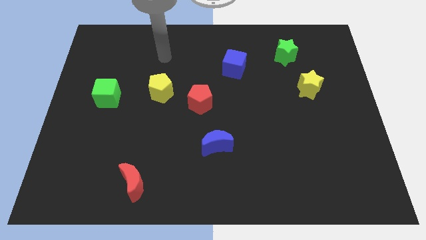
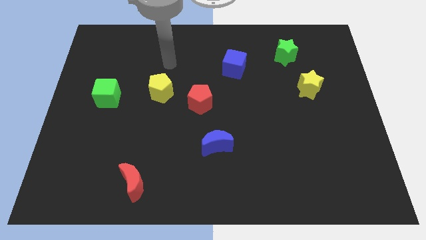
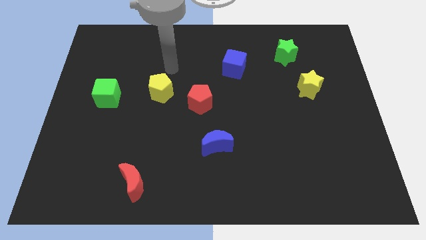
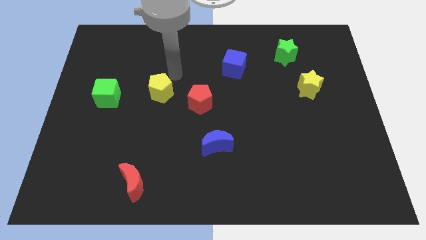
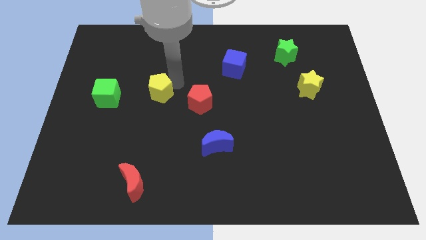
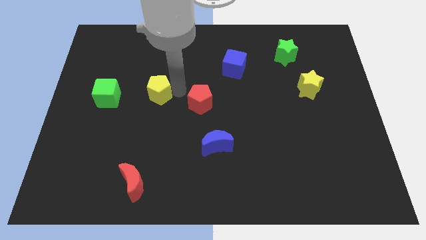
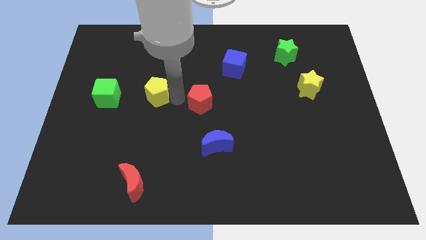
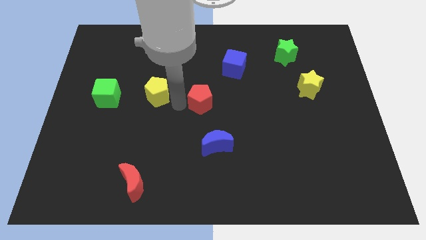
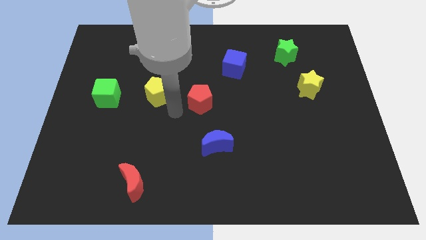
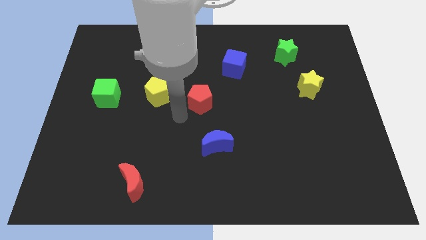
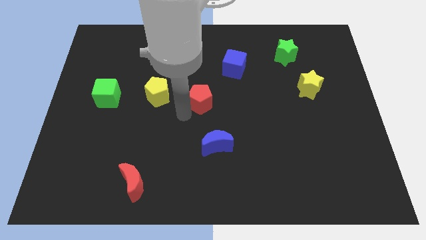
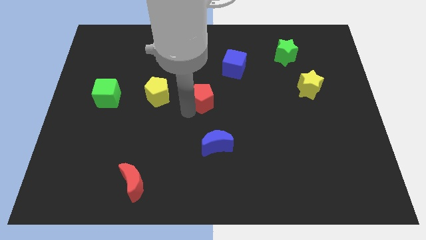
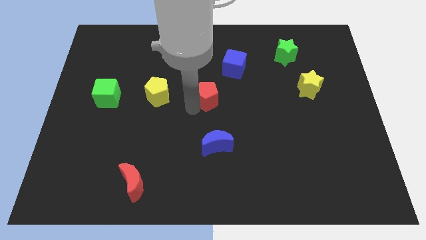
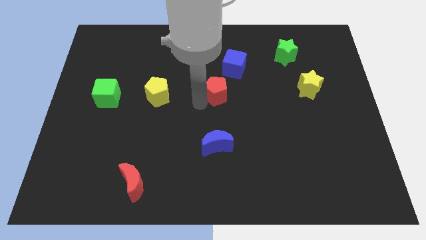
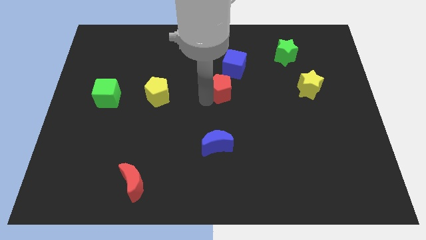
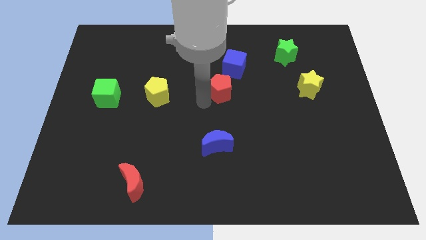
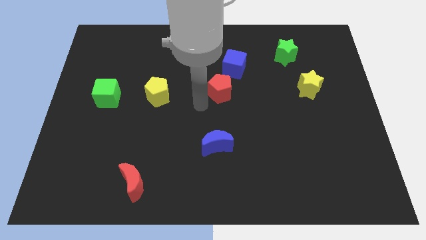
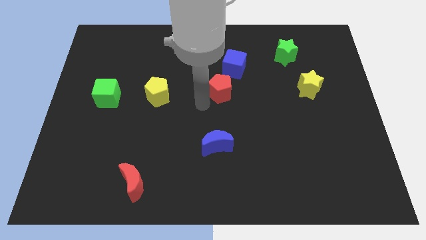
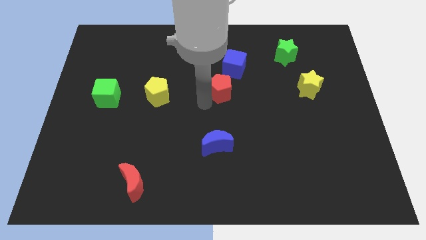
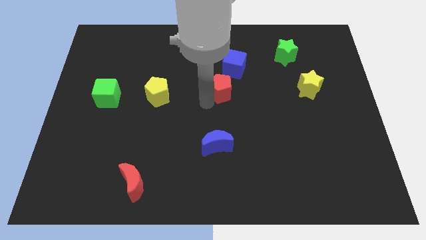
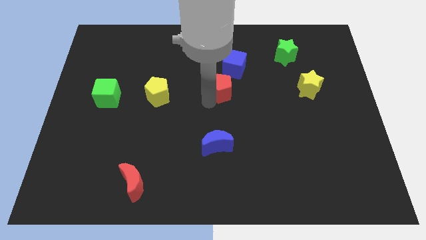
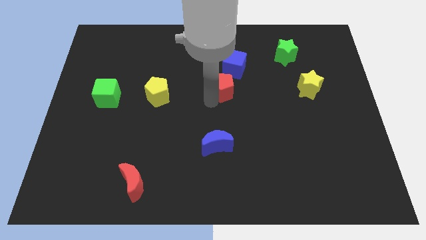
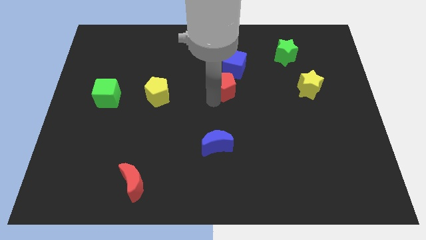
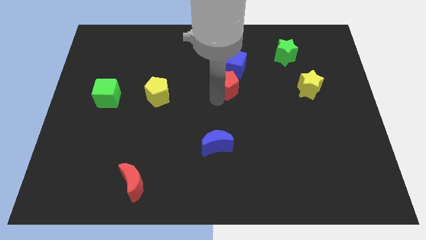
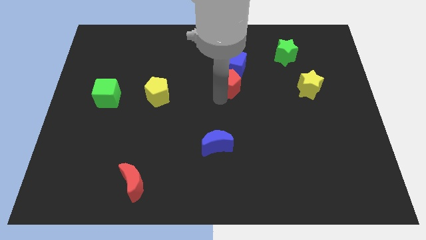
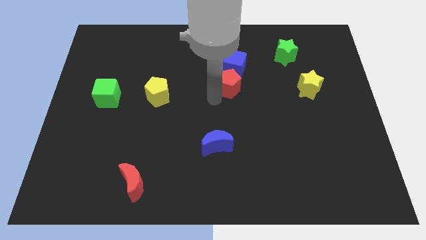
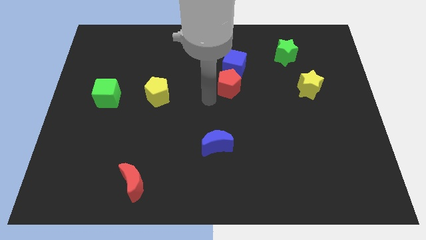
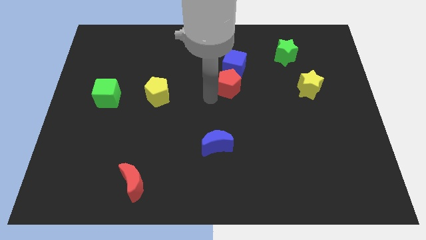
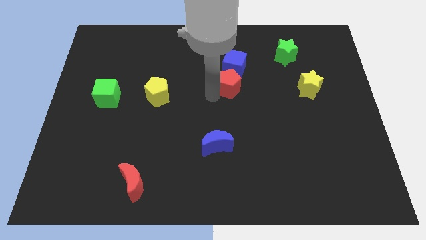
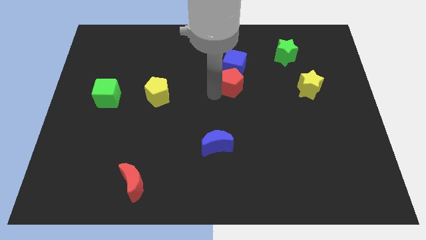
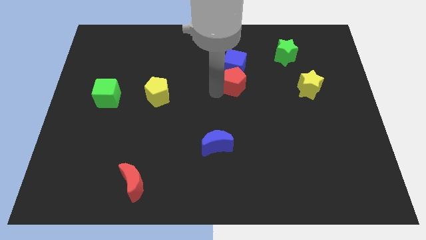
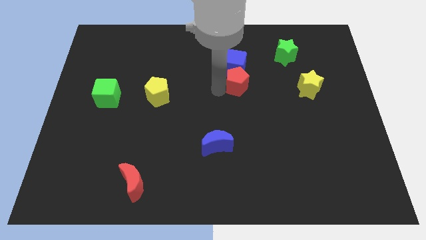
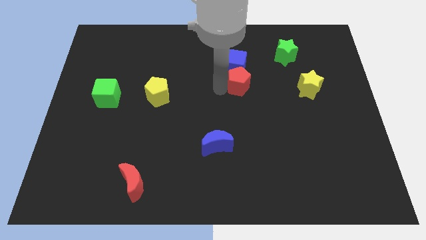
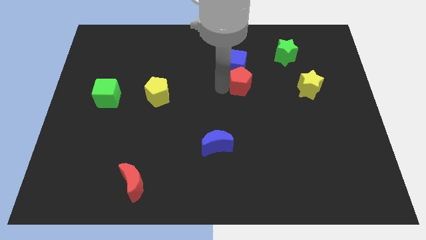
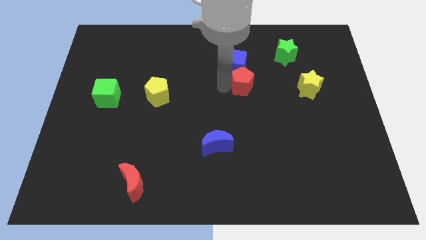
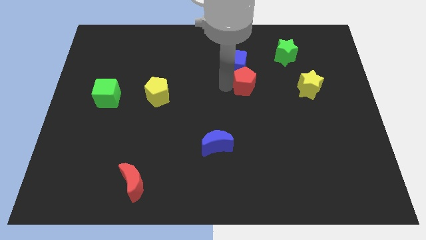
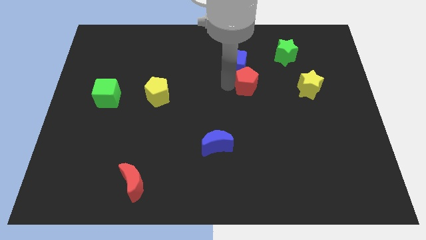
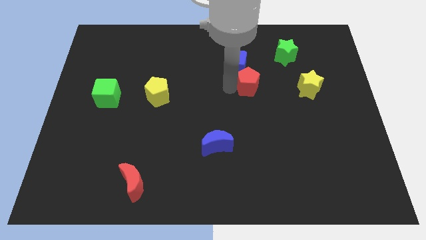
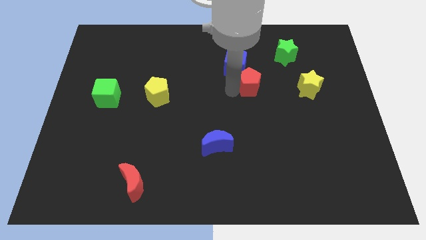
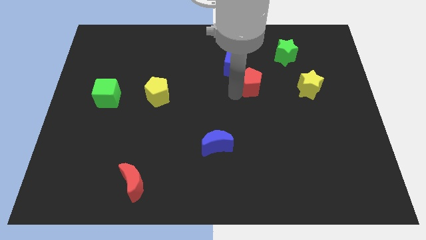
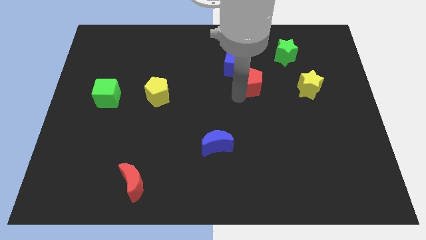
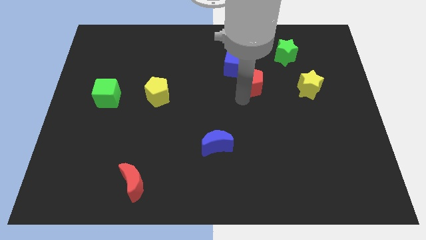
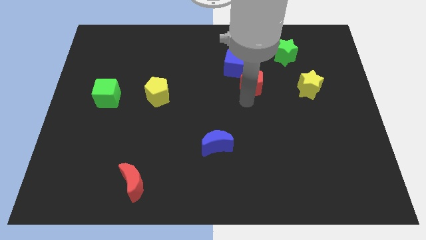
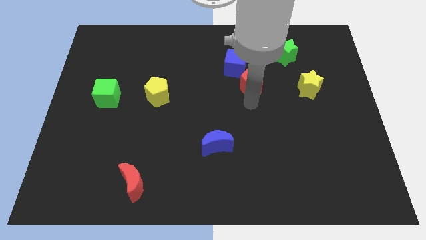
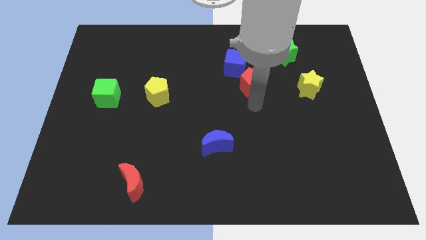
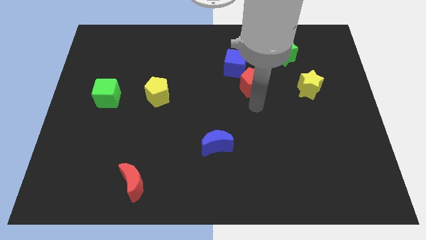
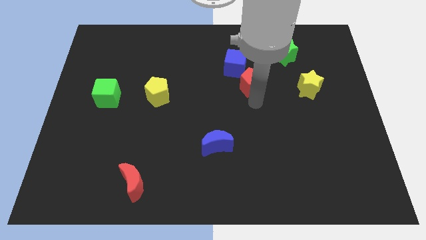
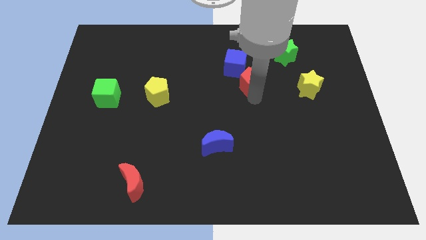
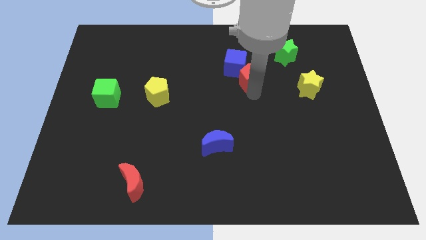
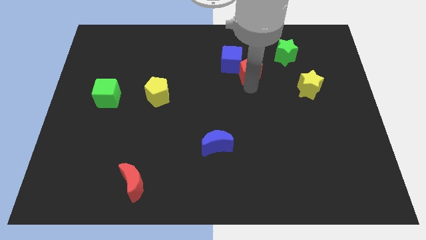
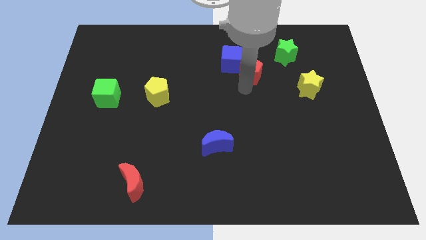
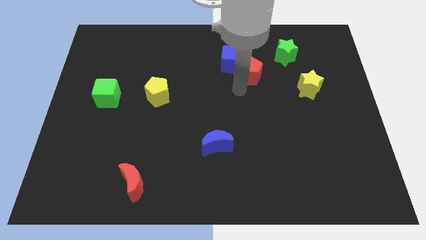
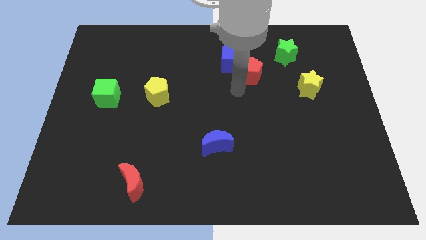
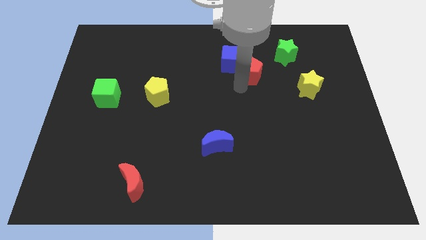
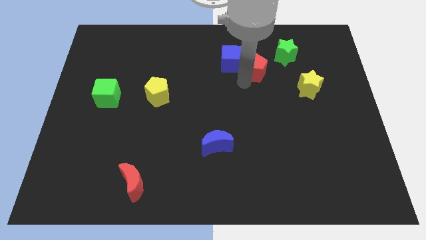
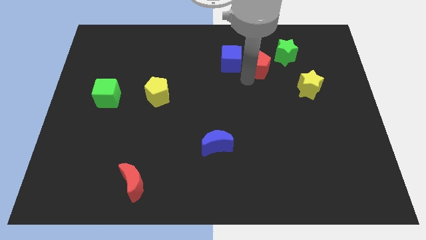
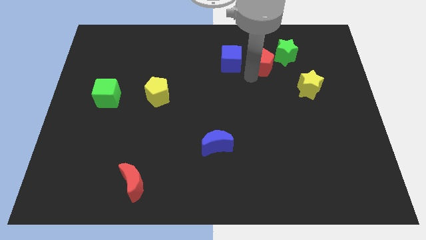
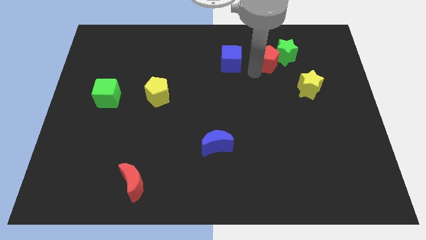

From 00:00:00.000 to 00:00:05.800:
slide the red pentagon towards the green star

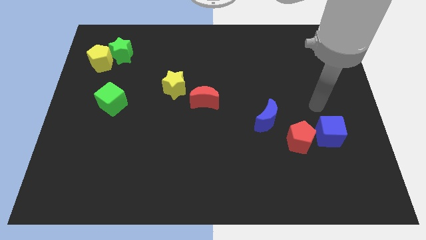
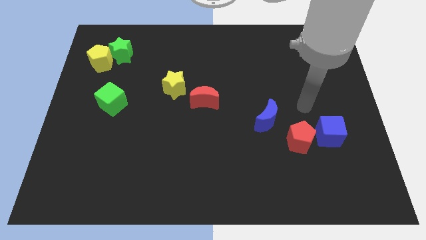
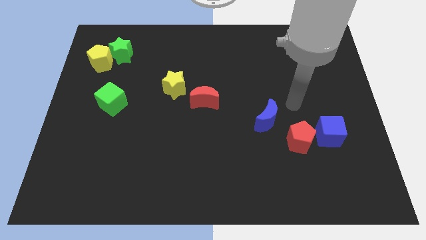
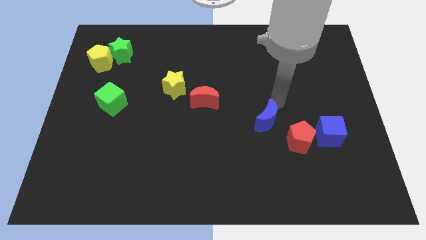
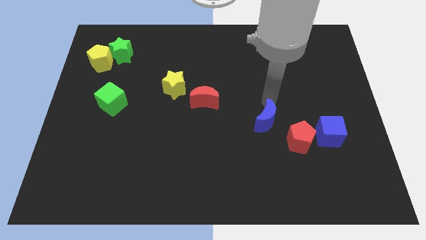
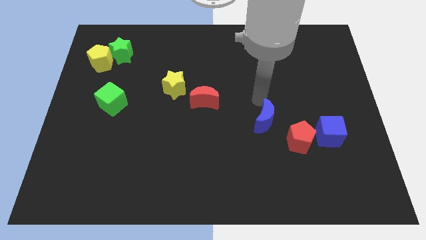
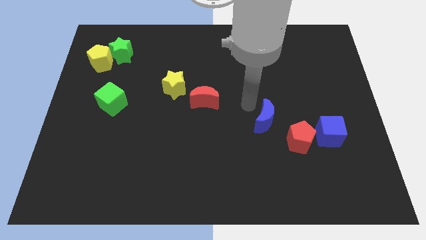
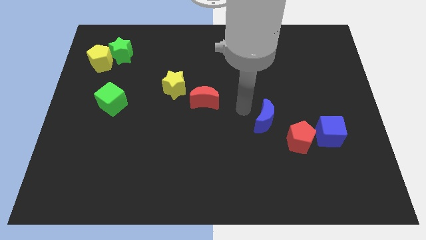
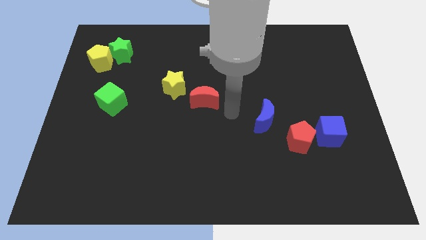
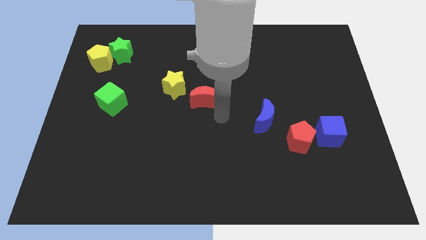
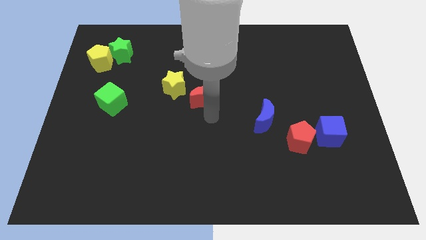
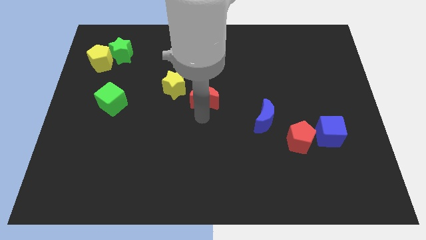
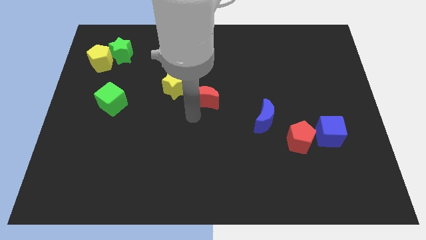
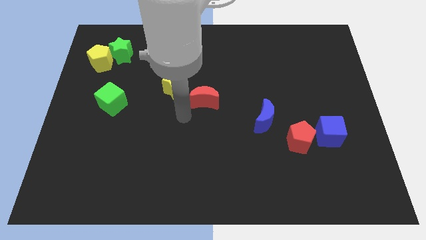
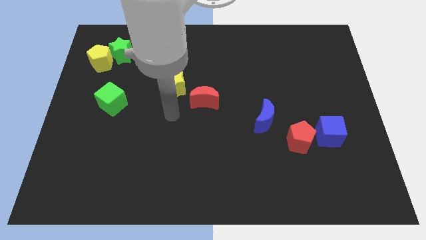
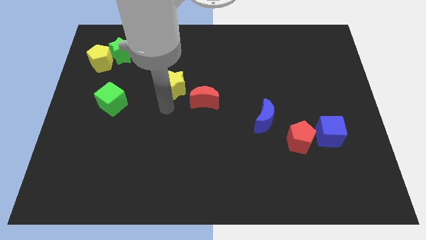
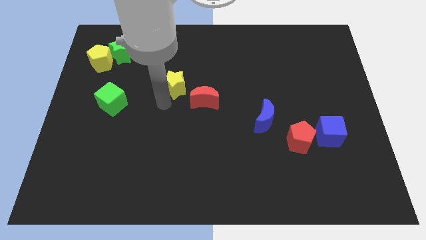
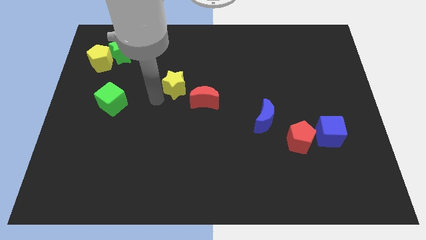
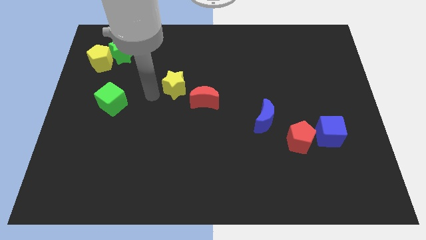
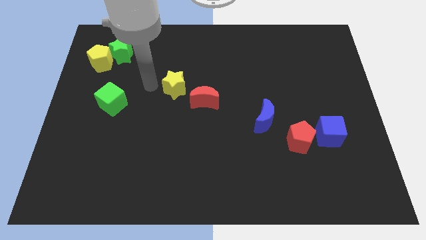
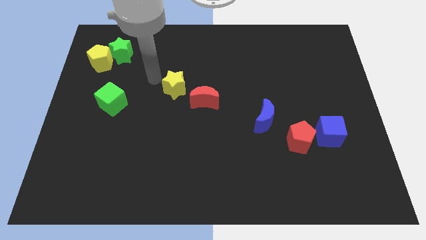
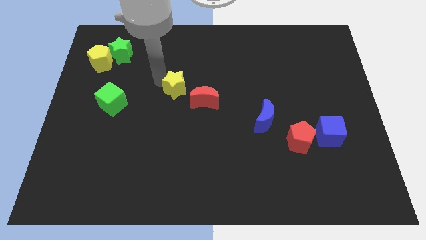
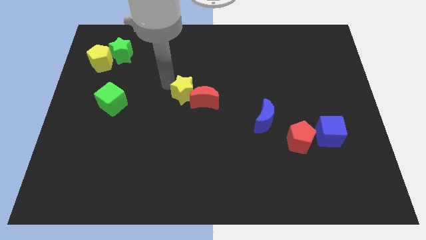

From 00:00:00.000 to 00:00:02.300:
move the yellow star next to the red moon
